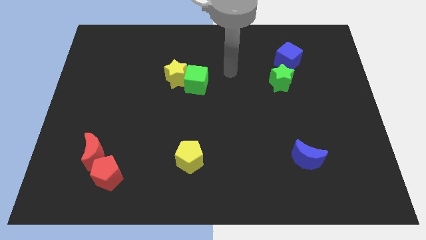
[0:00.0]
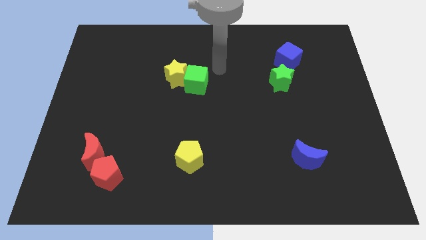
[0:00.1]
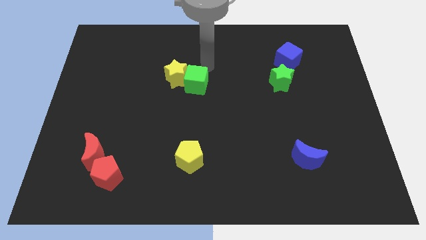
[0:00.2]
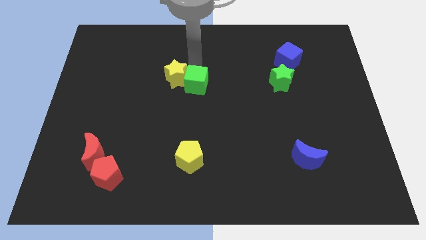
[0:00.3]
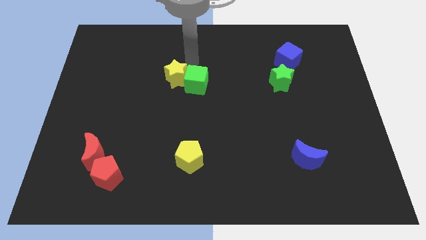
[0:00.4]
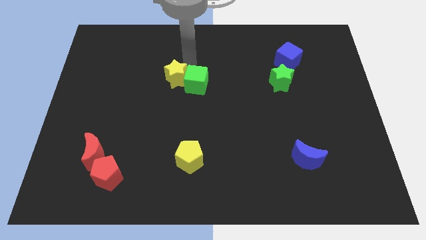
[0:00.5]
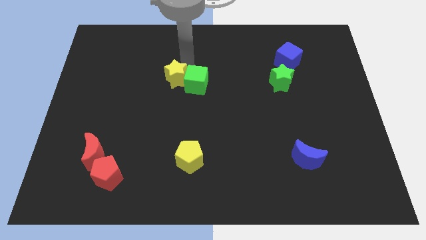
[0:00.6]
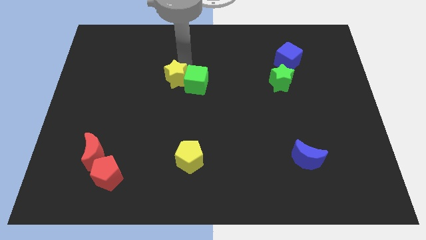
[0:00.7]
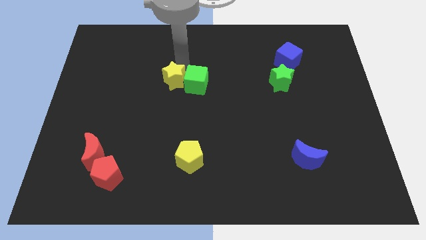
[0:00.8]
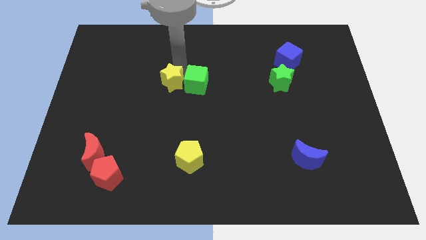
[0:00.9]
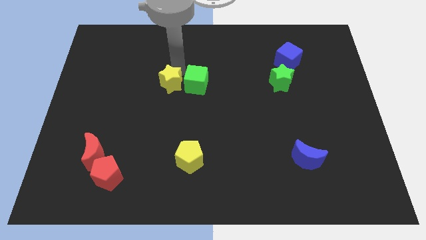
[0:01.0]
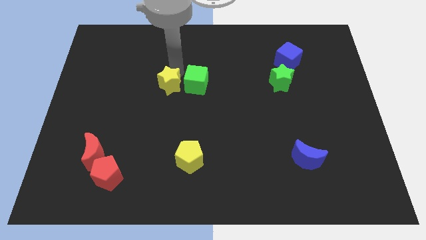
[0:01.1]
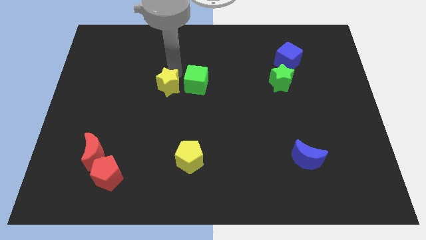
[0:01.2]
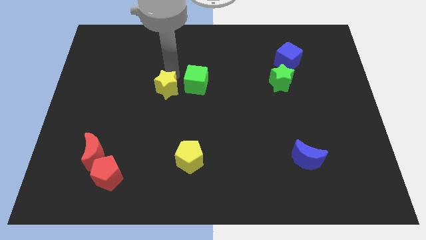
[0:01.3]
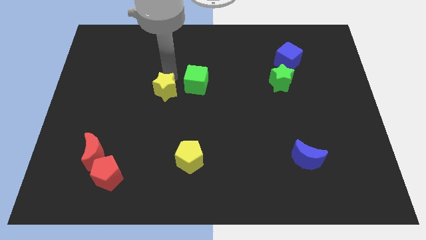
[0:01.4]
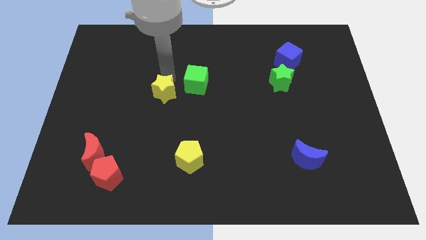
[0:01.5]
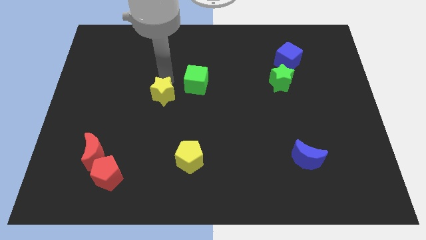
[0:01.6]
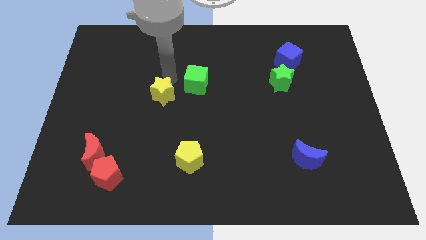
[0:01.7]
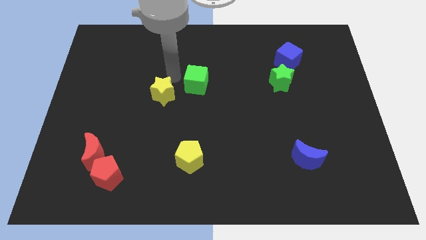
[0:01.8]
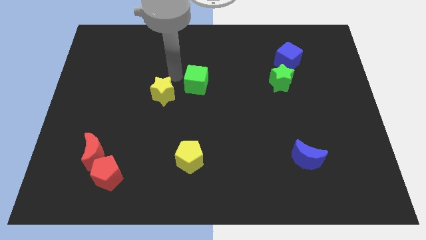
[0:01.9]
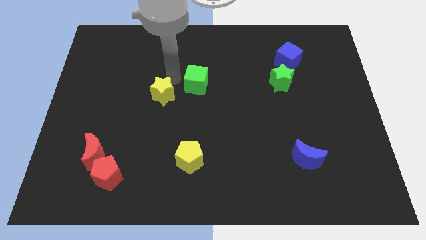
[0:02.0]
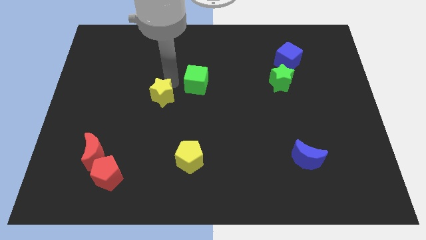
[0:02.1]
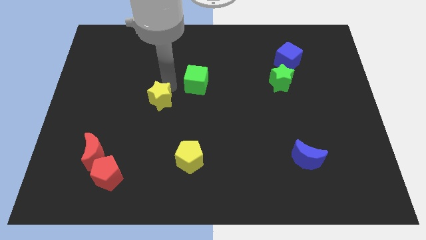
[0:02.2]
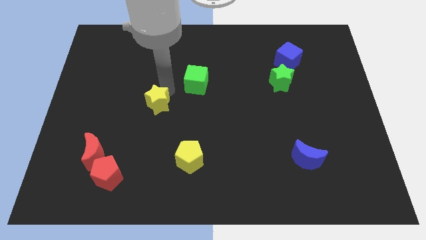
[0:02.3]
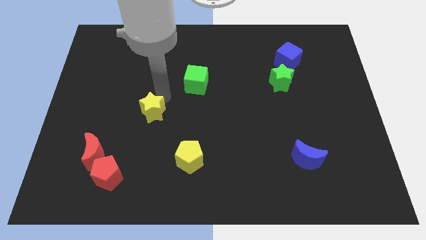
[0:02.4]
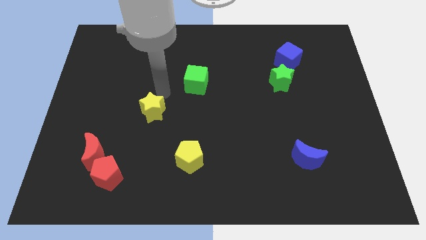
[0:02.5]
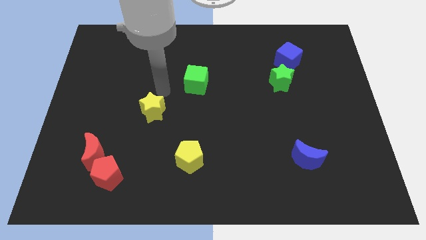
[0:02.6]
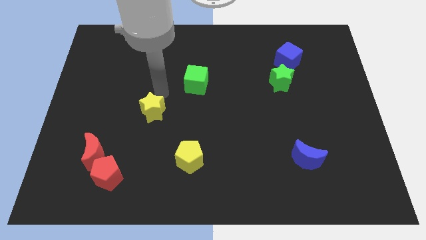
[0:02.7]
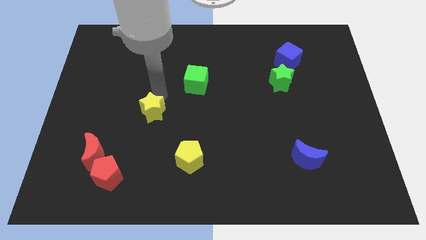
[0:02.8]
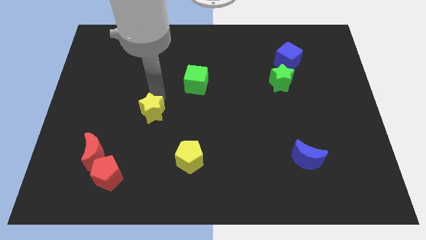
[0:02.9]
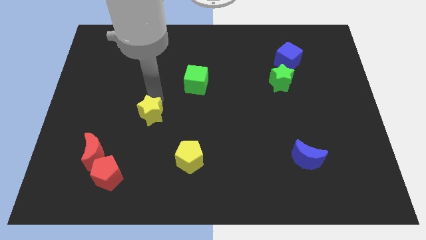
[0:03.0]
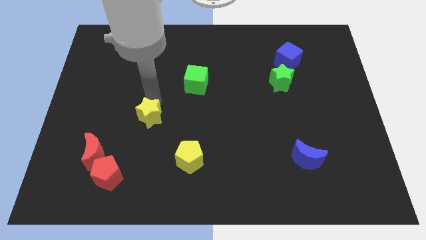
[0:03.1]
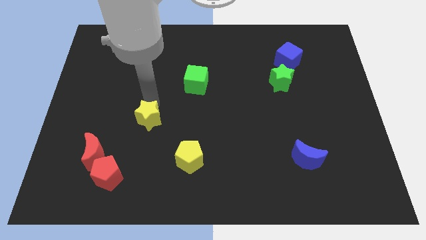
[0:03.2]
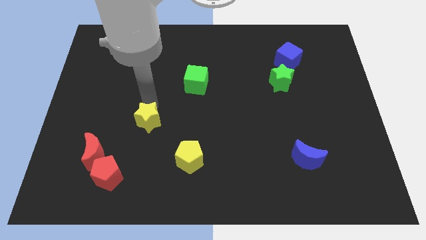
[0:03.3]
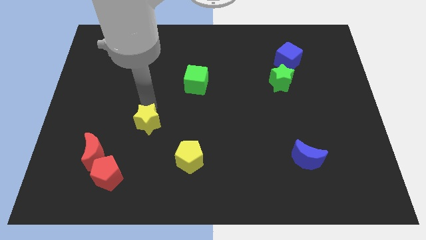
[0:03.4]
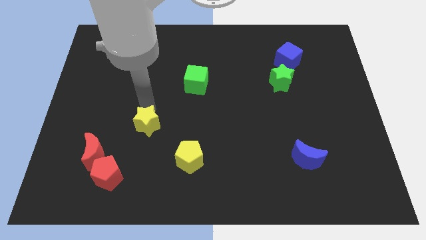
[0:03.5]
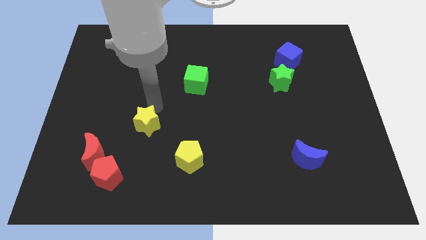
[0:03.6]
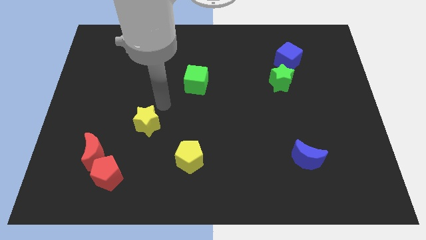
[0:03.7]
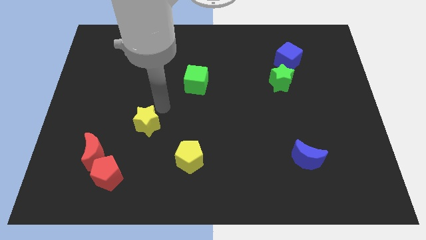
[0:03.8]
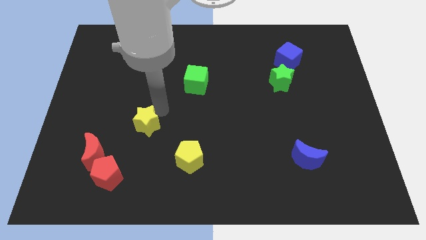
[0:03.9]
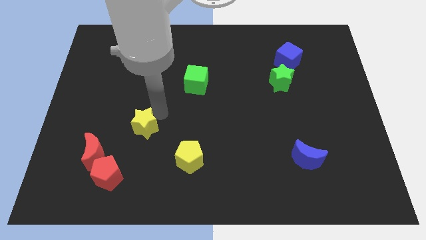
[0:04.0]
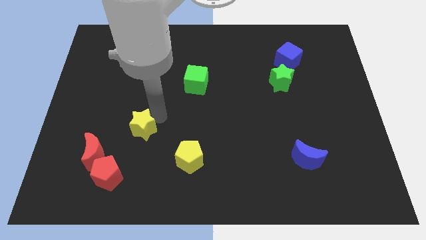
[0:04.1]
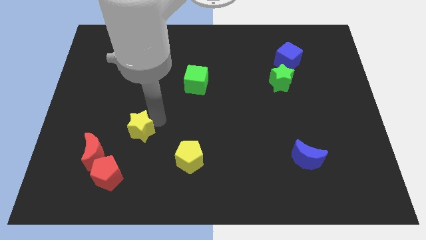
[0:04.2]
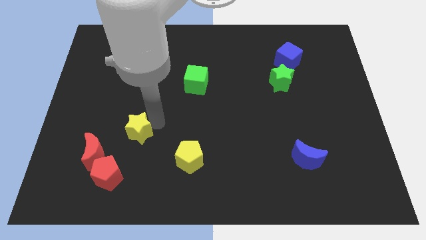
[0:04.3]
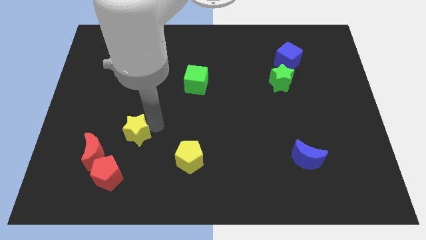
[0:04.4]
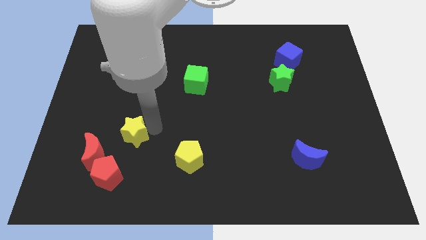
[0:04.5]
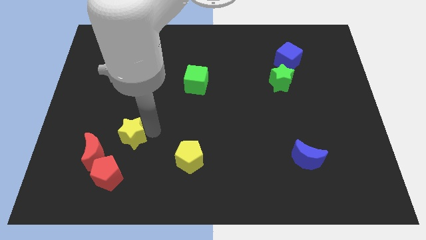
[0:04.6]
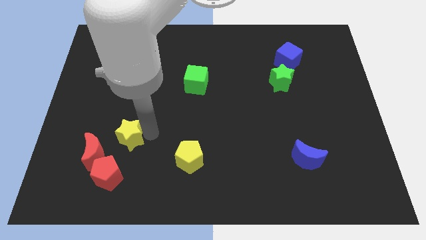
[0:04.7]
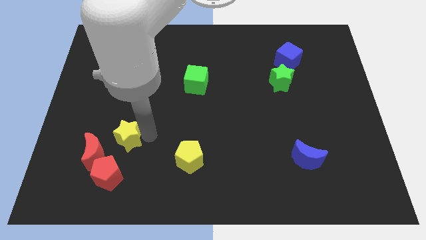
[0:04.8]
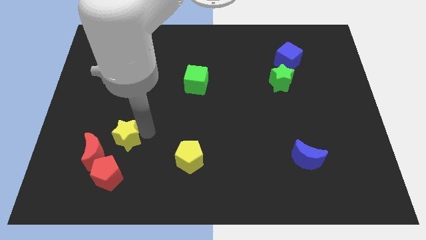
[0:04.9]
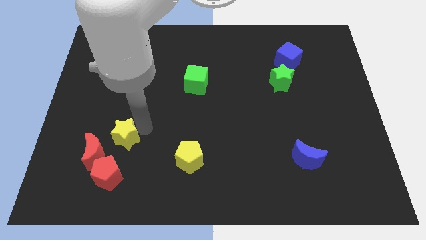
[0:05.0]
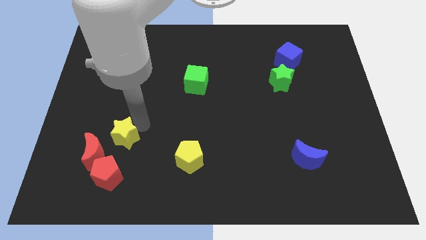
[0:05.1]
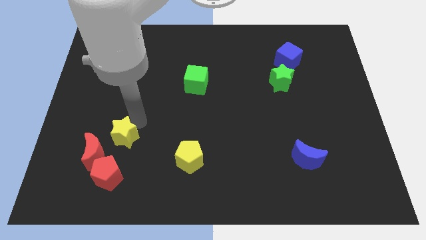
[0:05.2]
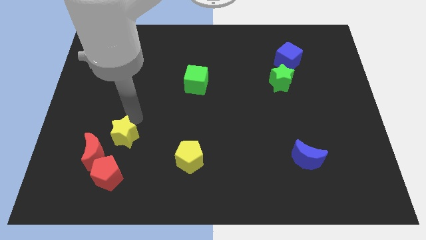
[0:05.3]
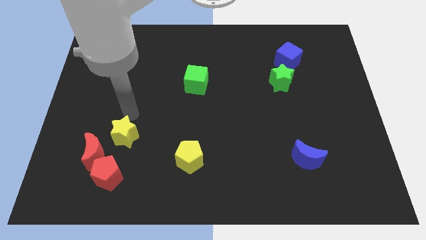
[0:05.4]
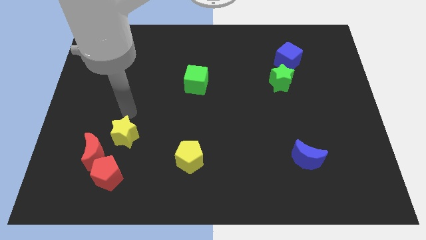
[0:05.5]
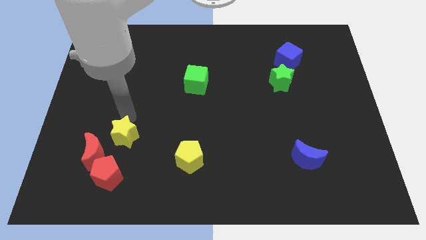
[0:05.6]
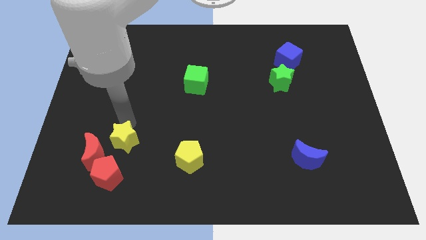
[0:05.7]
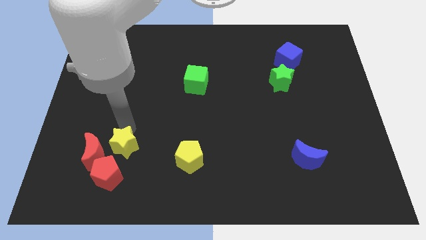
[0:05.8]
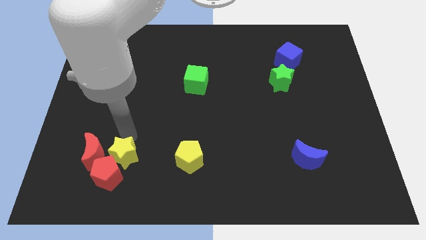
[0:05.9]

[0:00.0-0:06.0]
move the yellow star to the red pentagon

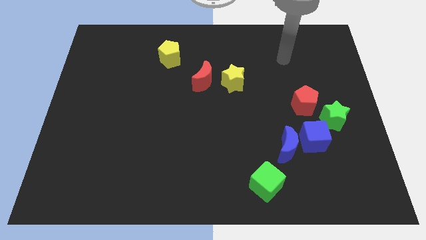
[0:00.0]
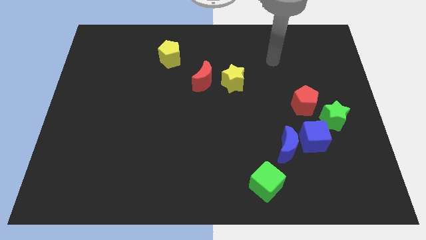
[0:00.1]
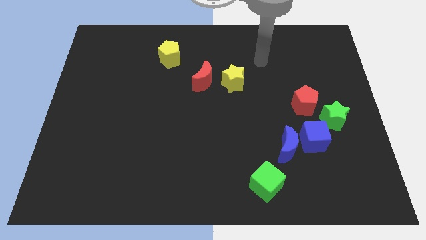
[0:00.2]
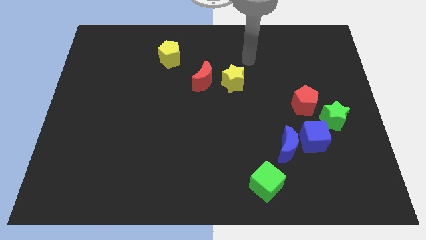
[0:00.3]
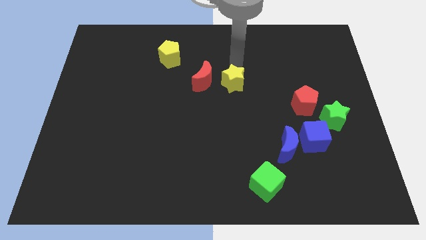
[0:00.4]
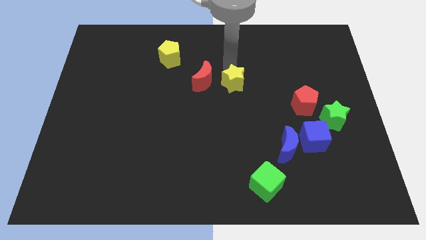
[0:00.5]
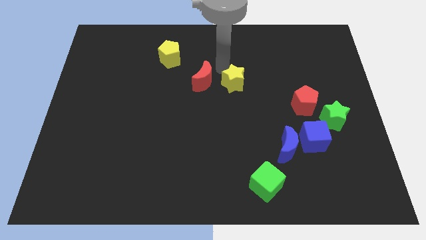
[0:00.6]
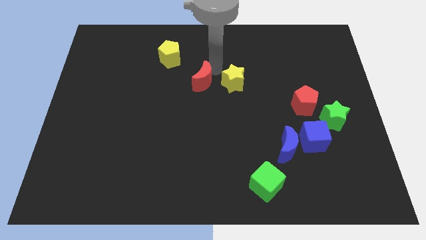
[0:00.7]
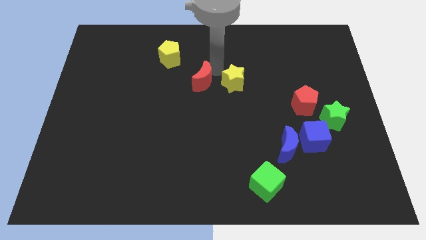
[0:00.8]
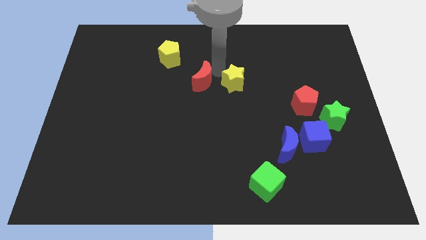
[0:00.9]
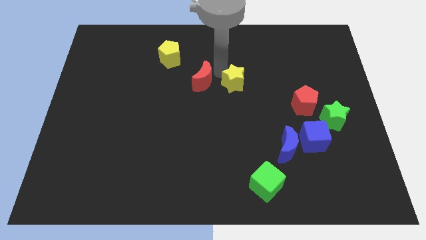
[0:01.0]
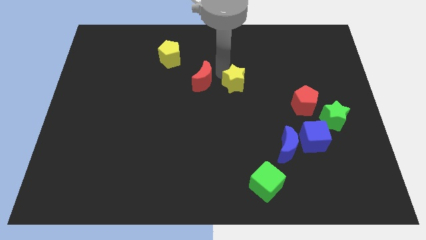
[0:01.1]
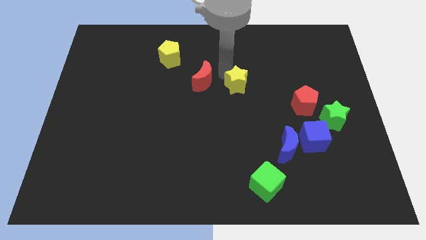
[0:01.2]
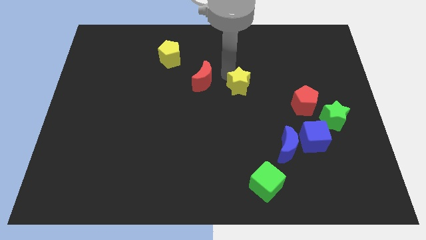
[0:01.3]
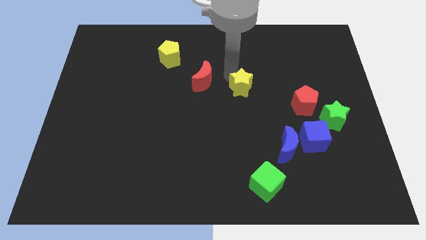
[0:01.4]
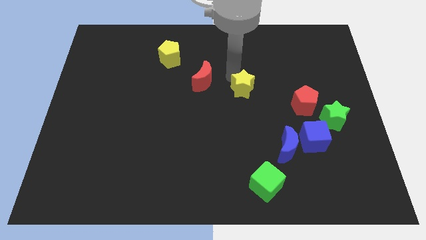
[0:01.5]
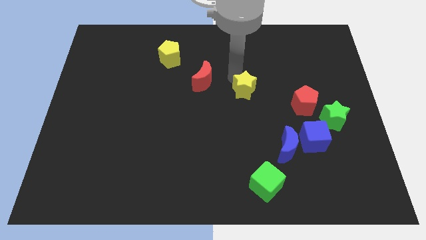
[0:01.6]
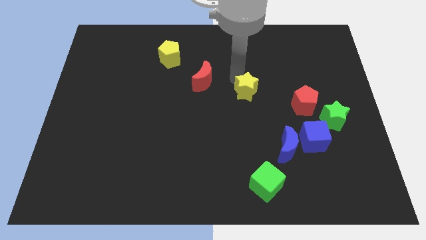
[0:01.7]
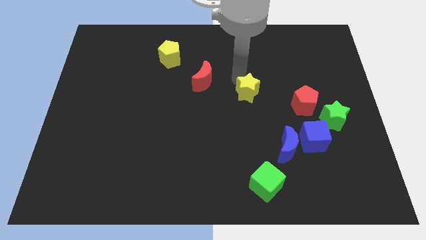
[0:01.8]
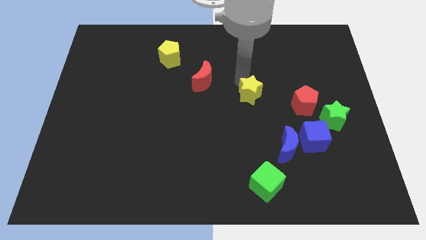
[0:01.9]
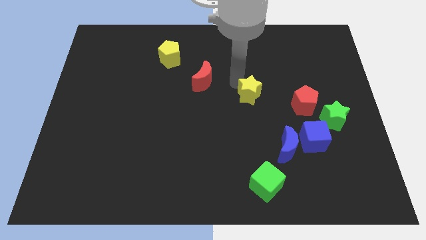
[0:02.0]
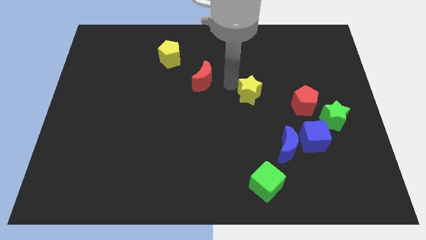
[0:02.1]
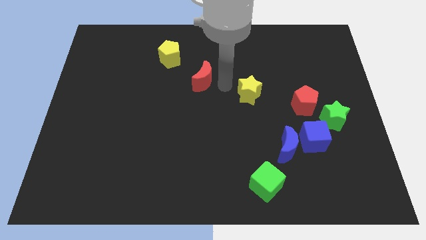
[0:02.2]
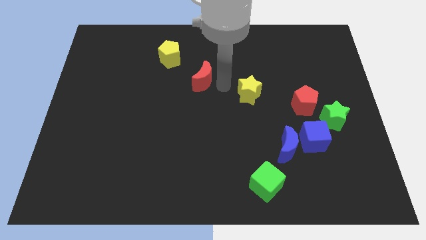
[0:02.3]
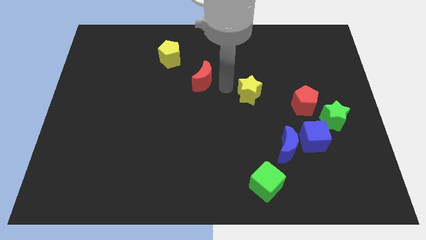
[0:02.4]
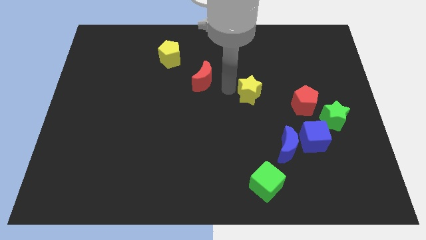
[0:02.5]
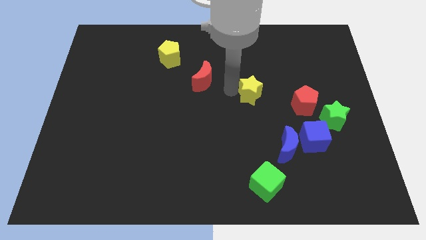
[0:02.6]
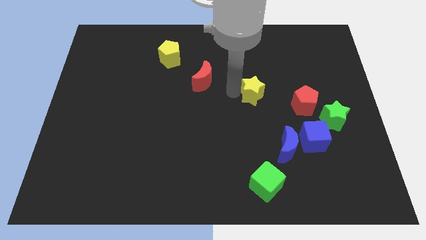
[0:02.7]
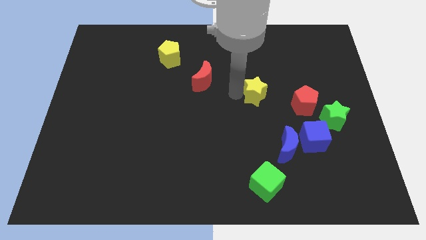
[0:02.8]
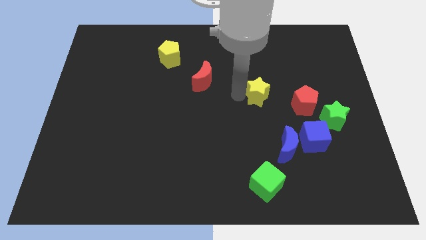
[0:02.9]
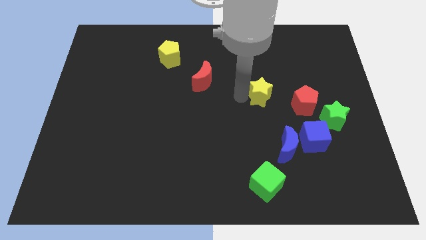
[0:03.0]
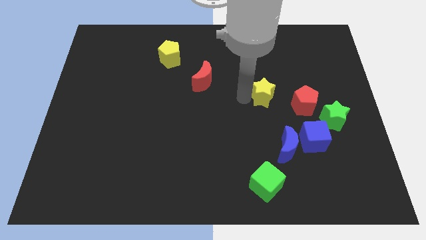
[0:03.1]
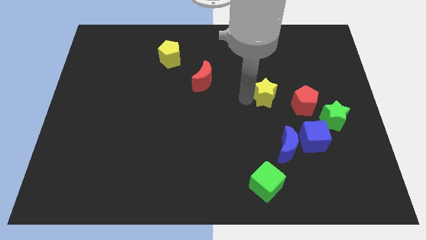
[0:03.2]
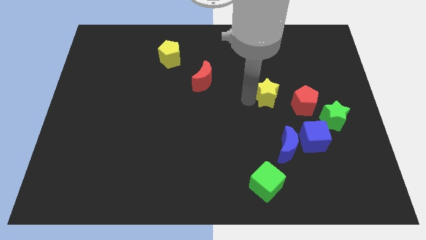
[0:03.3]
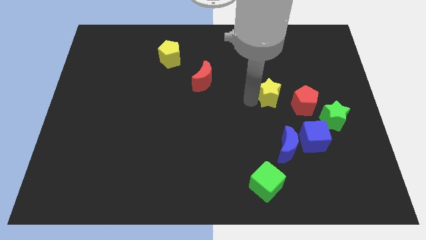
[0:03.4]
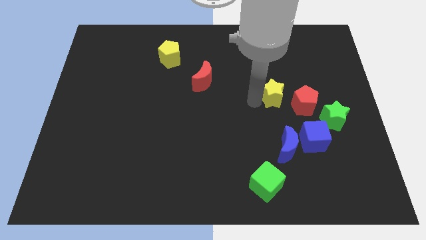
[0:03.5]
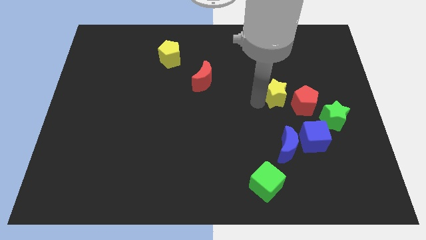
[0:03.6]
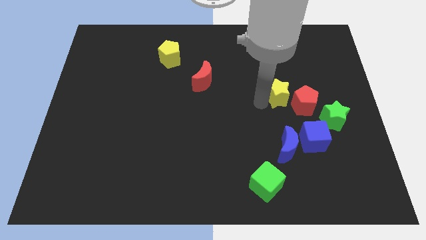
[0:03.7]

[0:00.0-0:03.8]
push the yellow star to the red pentagon
